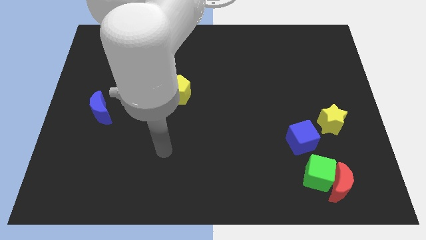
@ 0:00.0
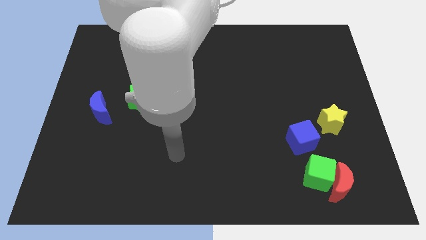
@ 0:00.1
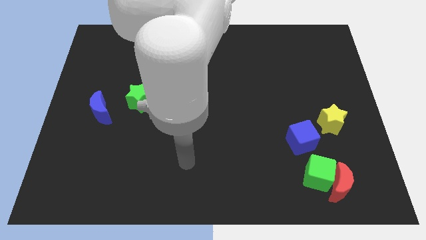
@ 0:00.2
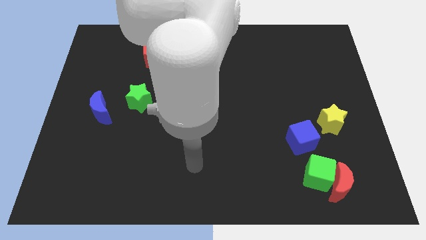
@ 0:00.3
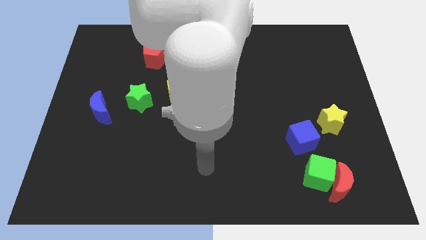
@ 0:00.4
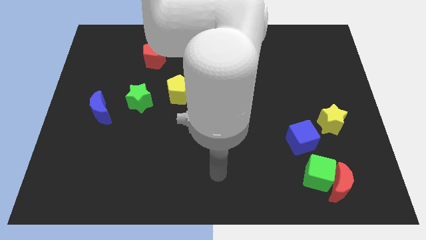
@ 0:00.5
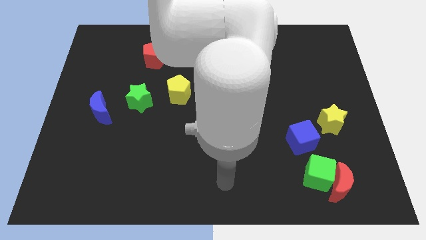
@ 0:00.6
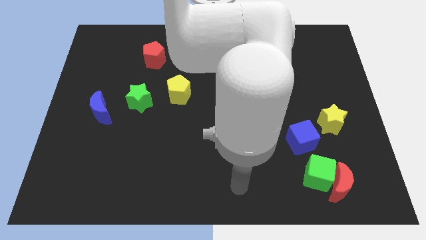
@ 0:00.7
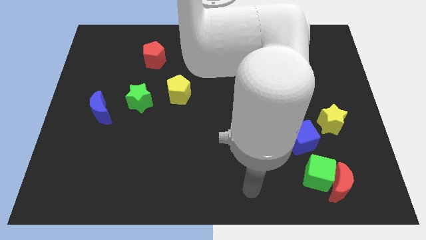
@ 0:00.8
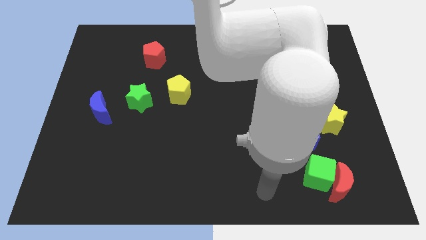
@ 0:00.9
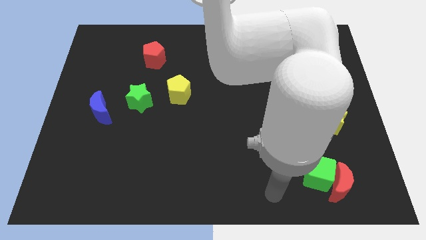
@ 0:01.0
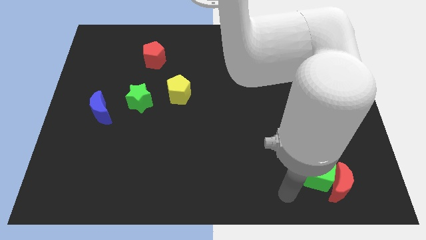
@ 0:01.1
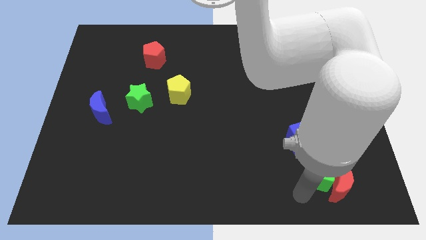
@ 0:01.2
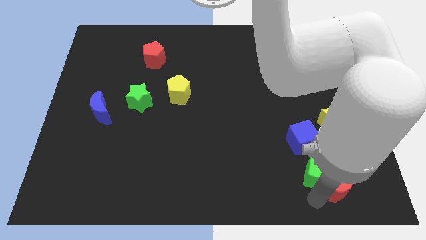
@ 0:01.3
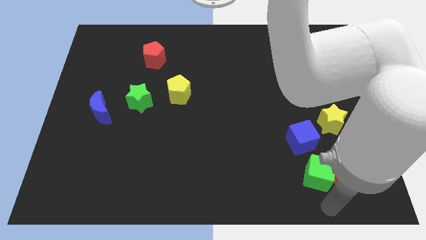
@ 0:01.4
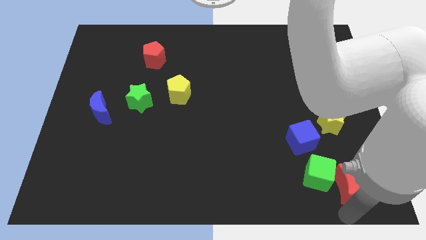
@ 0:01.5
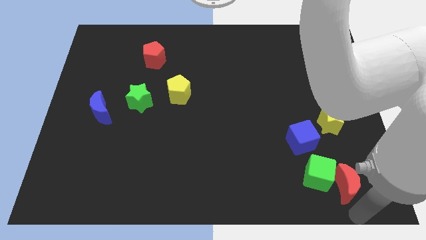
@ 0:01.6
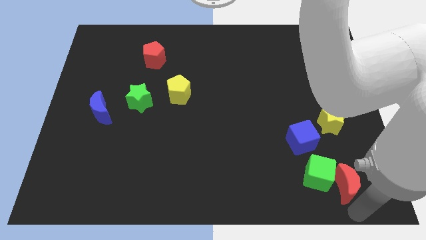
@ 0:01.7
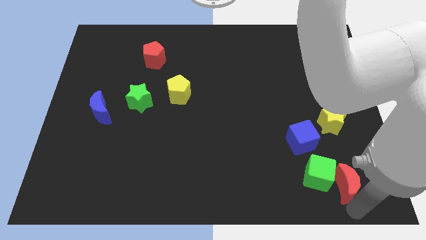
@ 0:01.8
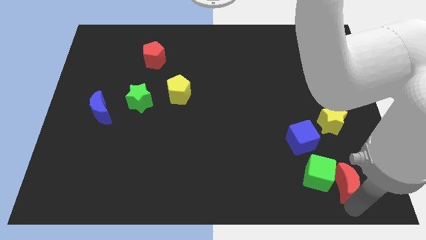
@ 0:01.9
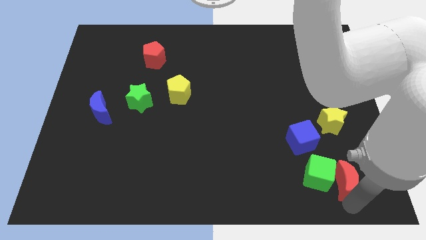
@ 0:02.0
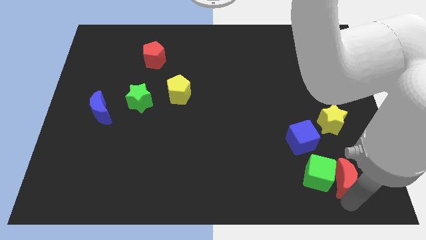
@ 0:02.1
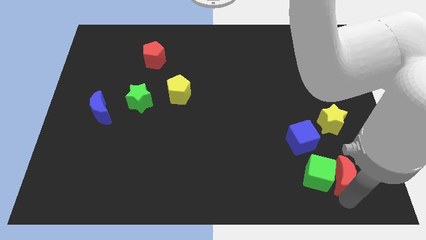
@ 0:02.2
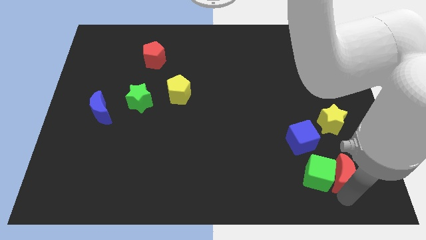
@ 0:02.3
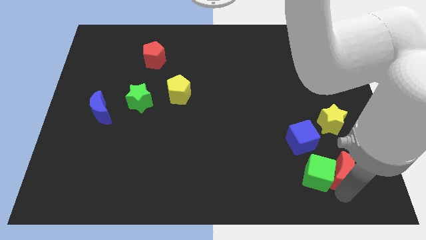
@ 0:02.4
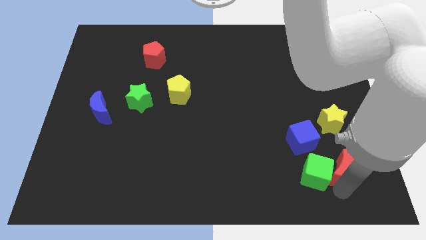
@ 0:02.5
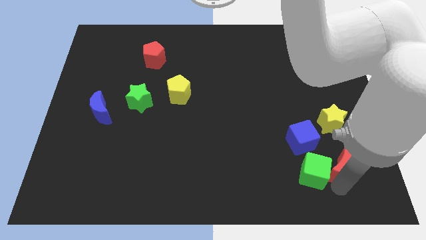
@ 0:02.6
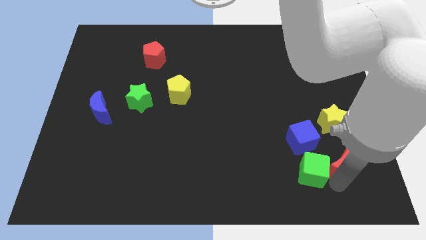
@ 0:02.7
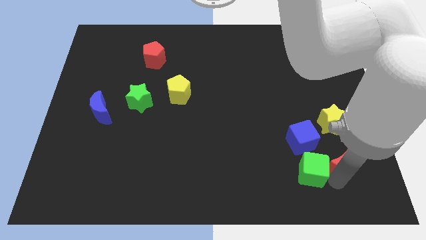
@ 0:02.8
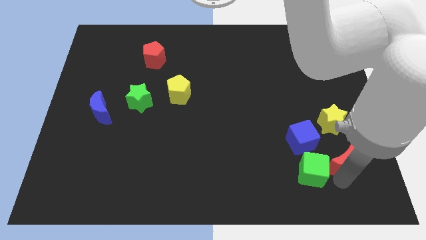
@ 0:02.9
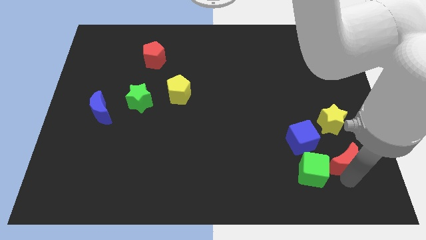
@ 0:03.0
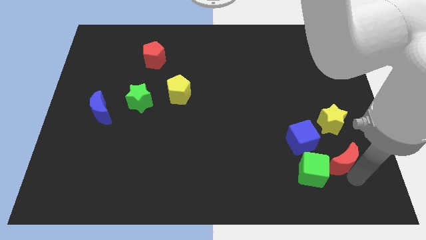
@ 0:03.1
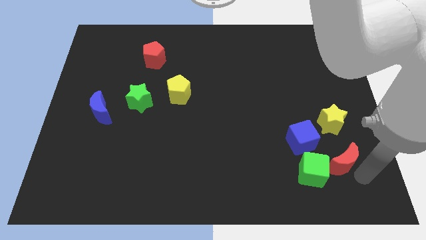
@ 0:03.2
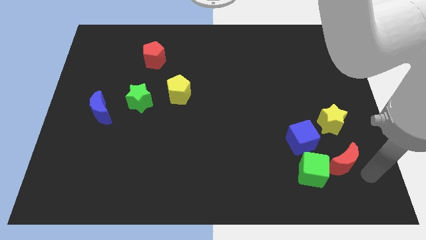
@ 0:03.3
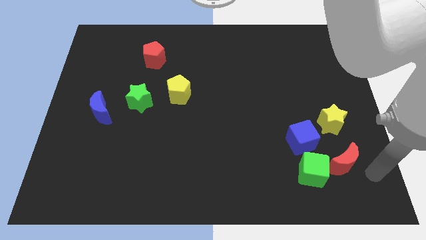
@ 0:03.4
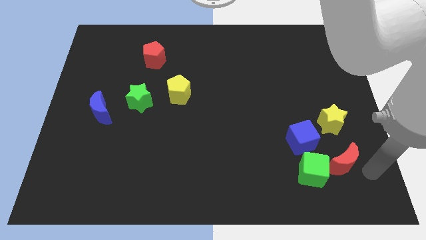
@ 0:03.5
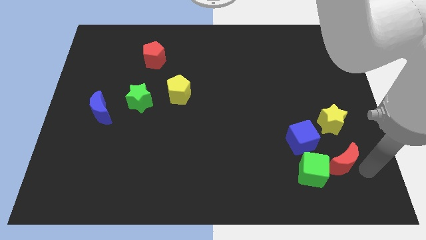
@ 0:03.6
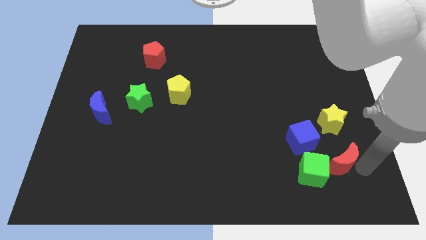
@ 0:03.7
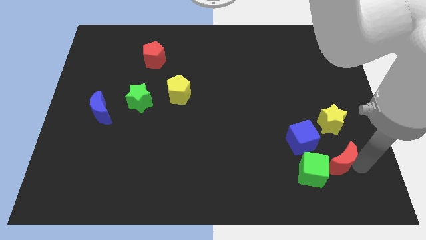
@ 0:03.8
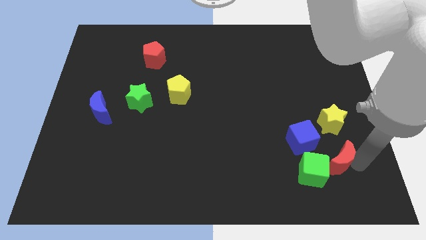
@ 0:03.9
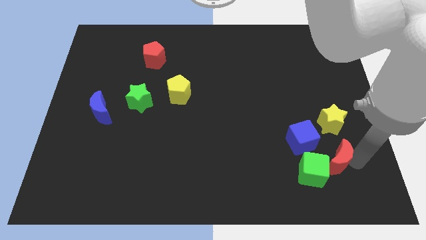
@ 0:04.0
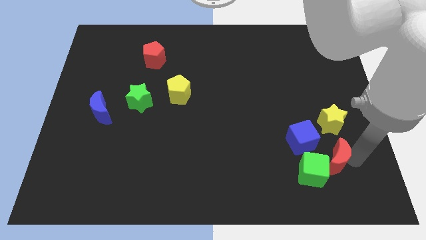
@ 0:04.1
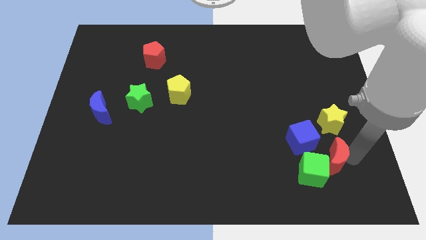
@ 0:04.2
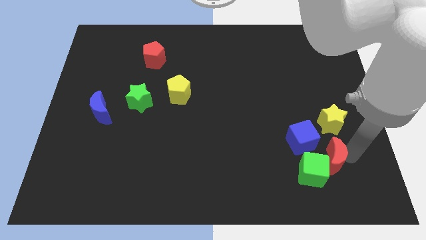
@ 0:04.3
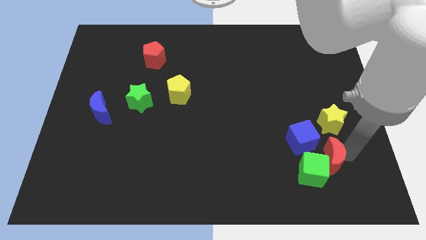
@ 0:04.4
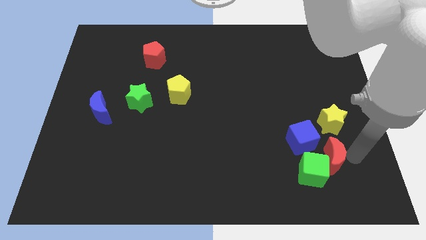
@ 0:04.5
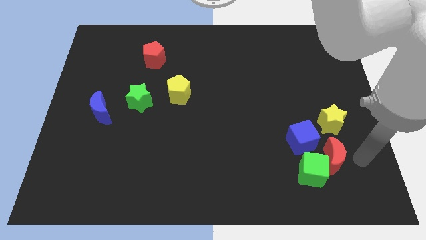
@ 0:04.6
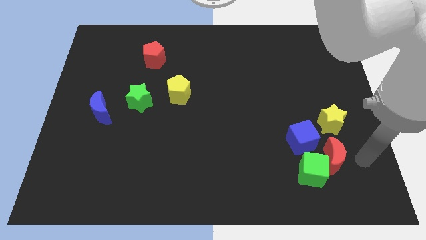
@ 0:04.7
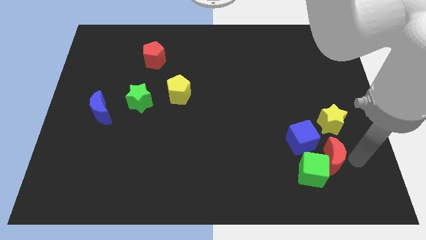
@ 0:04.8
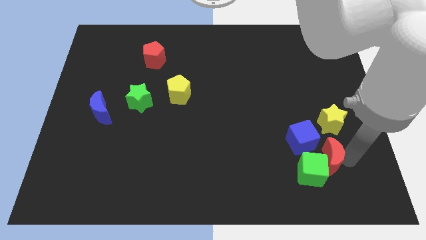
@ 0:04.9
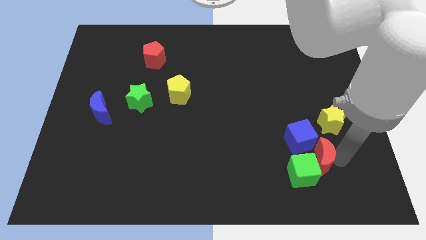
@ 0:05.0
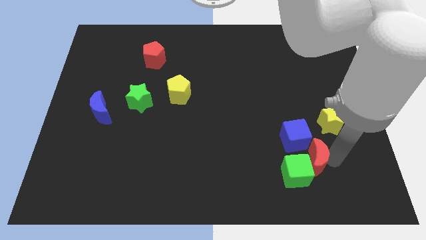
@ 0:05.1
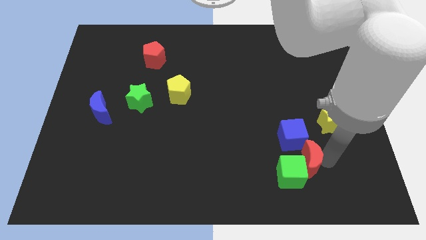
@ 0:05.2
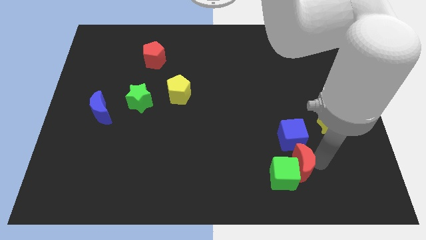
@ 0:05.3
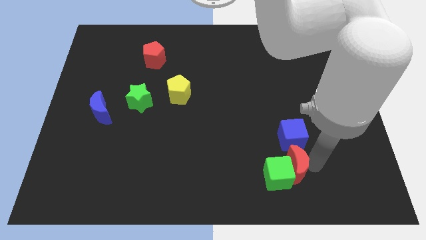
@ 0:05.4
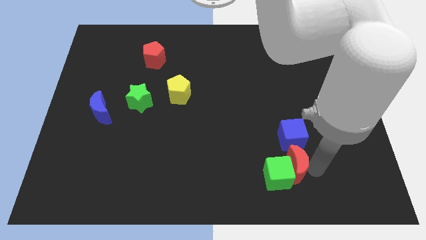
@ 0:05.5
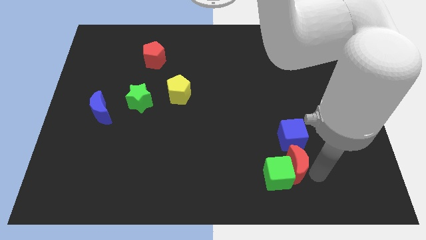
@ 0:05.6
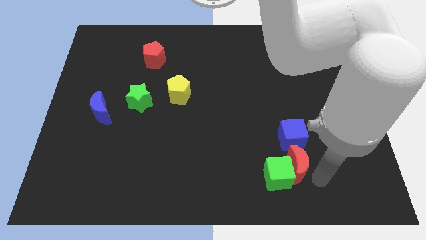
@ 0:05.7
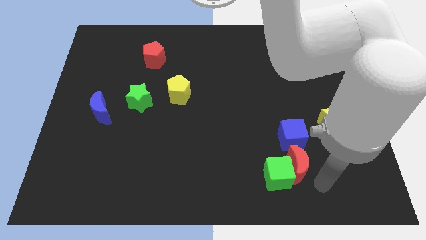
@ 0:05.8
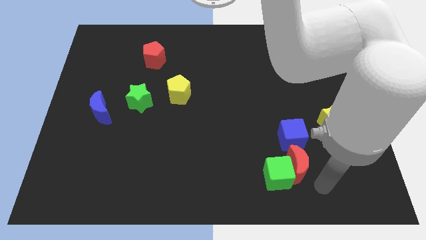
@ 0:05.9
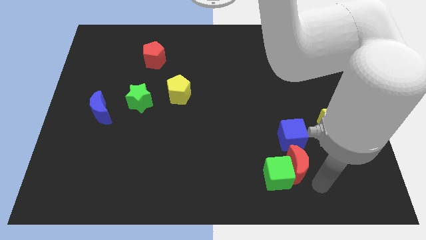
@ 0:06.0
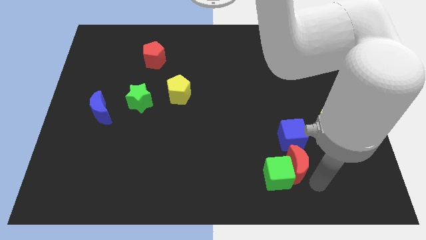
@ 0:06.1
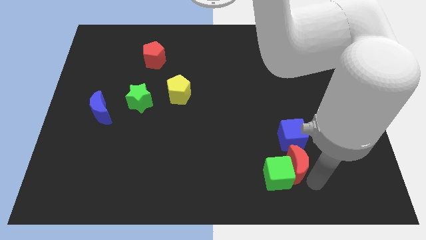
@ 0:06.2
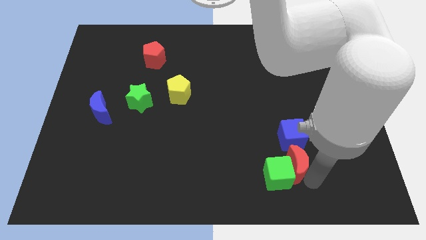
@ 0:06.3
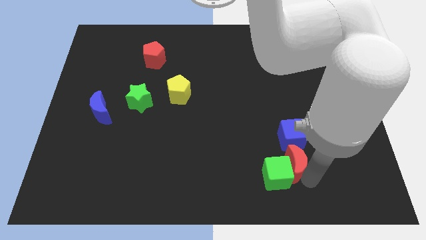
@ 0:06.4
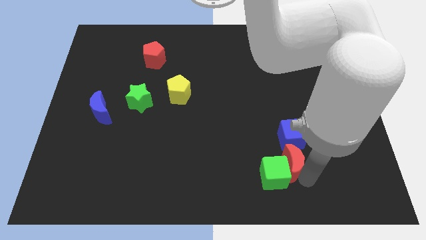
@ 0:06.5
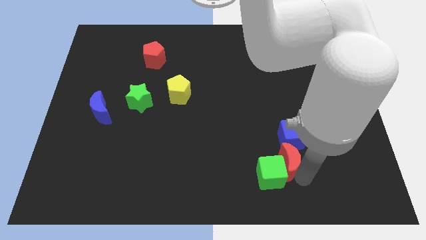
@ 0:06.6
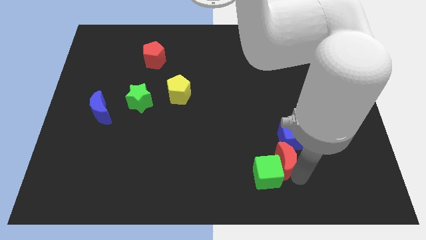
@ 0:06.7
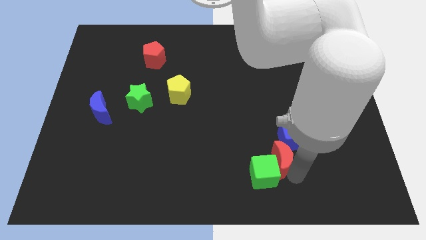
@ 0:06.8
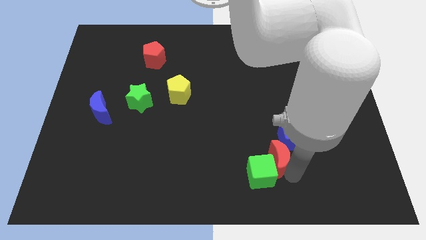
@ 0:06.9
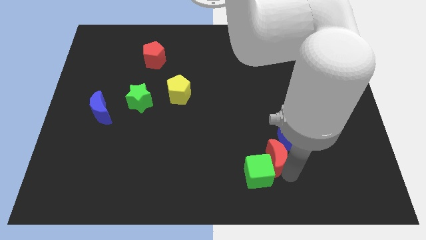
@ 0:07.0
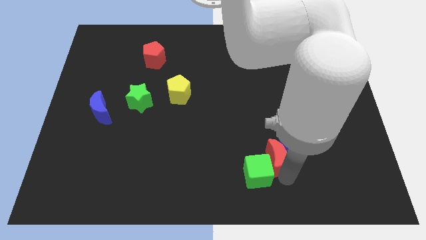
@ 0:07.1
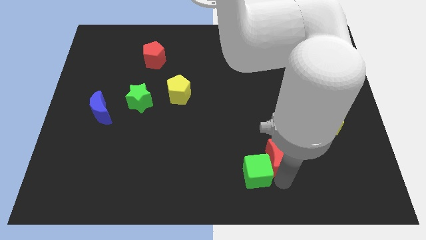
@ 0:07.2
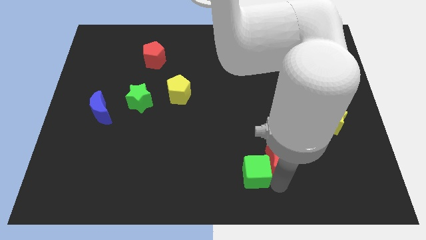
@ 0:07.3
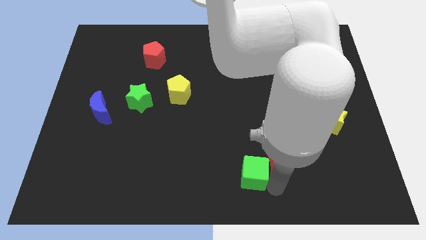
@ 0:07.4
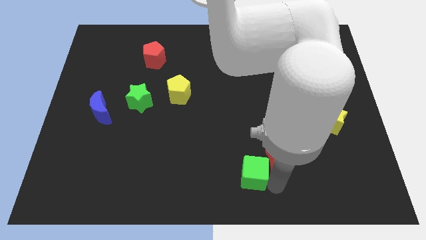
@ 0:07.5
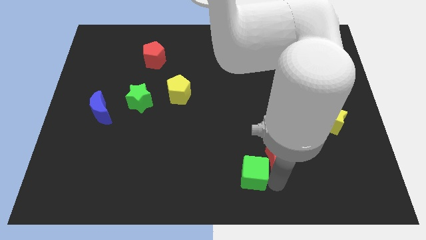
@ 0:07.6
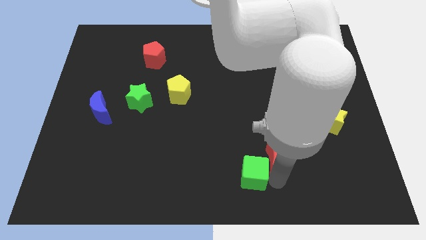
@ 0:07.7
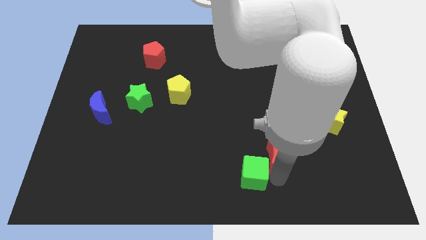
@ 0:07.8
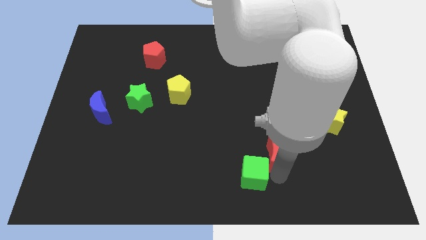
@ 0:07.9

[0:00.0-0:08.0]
put the red moon just left of the blue cube
